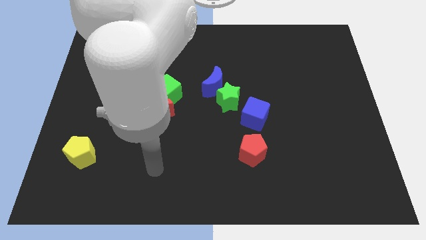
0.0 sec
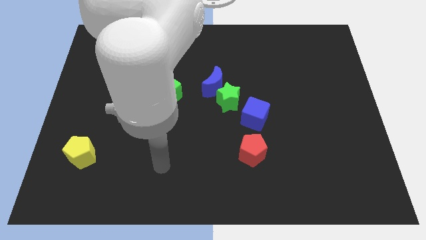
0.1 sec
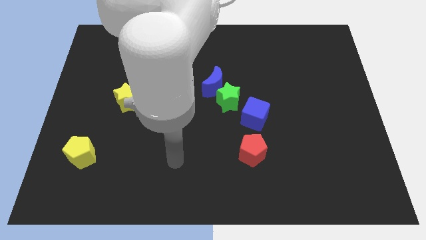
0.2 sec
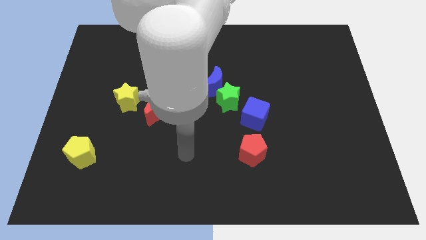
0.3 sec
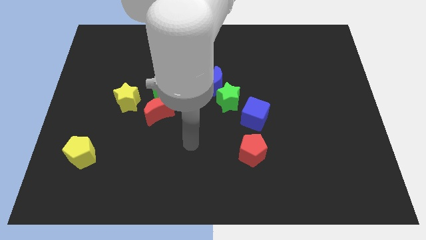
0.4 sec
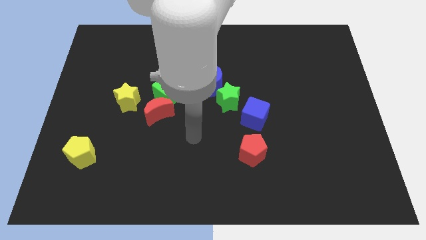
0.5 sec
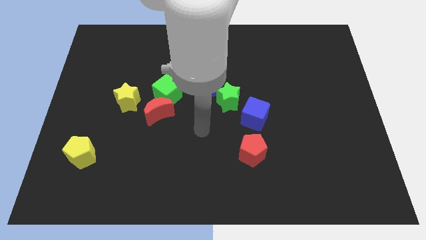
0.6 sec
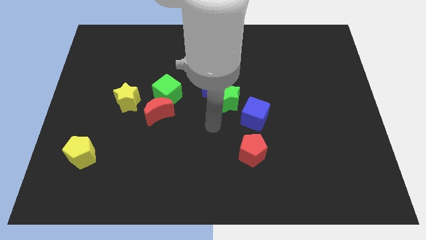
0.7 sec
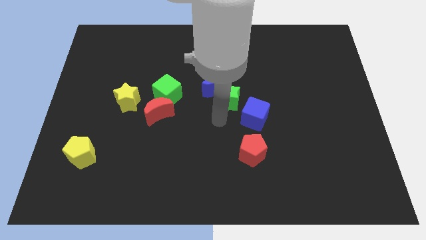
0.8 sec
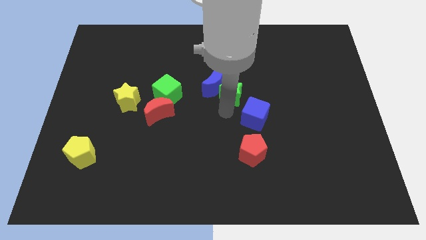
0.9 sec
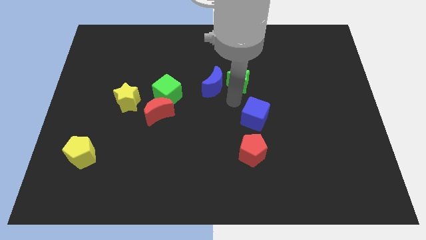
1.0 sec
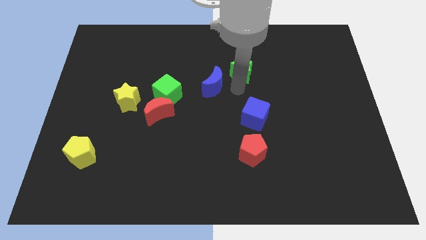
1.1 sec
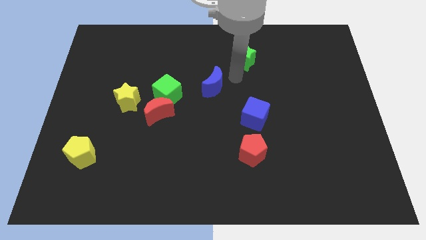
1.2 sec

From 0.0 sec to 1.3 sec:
separate the blue moon from the green star

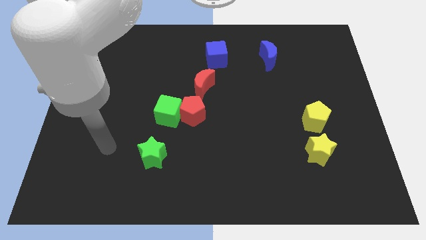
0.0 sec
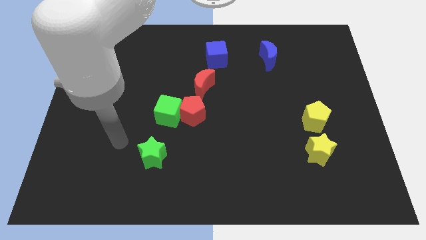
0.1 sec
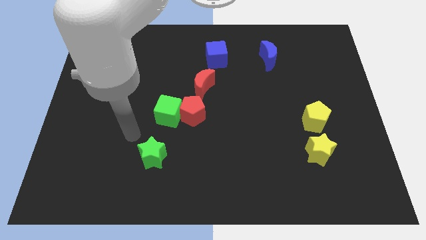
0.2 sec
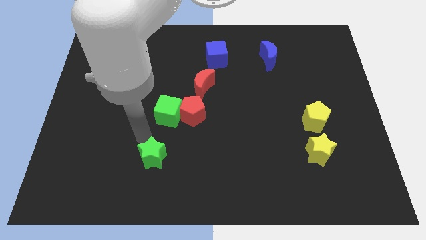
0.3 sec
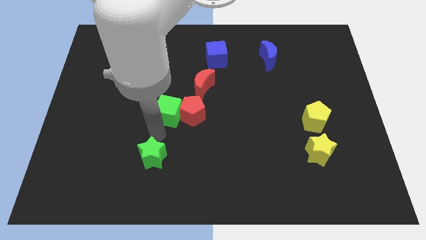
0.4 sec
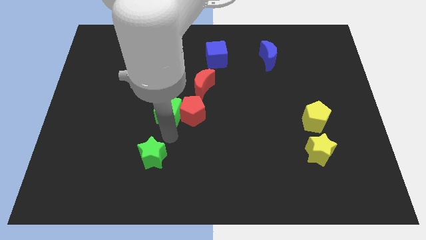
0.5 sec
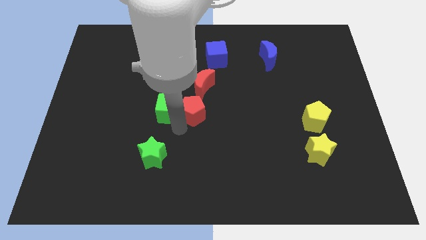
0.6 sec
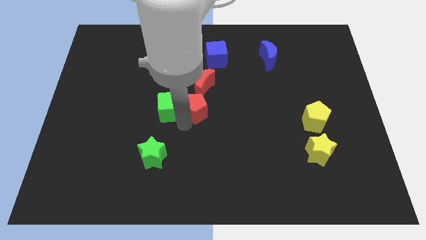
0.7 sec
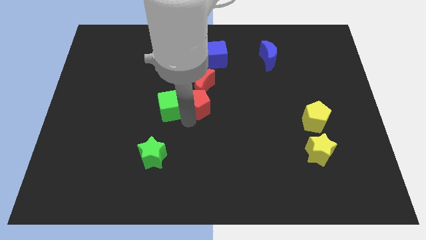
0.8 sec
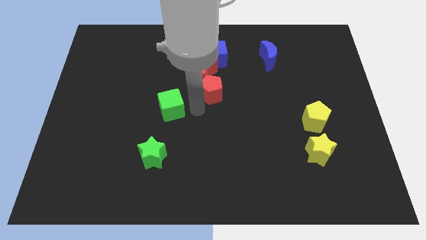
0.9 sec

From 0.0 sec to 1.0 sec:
separate the green cube from the red pentagon

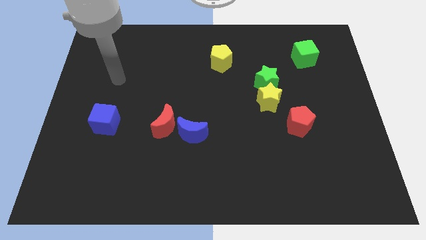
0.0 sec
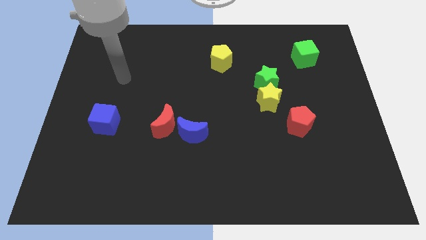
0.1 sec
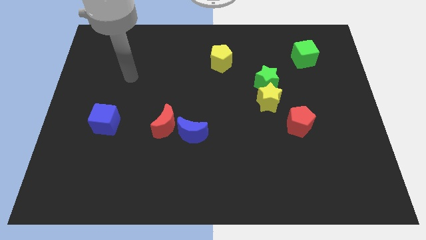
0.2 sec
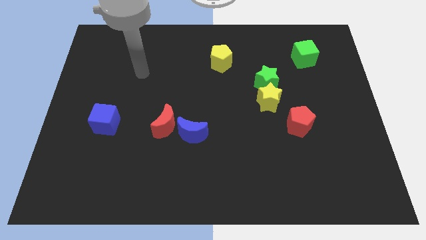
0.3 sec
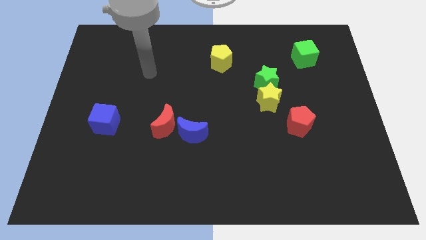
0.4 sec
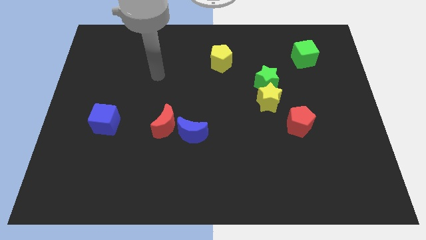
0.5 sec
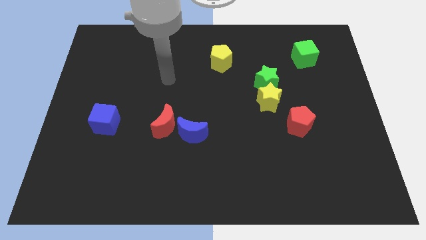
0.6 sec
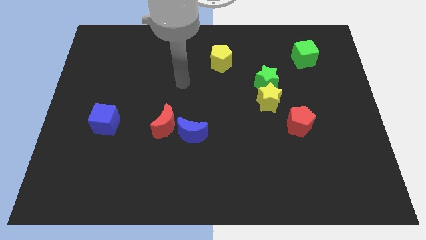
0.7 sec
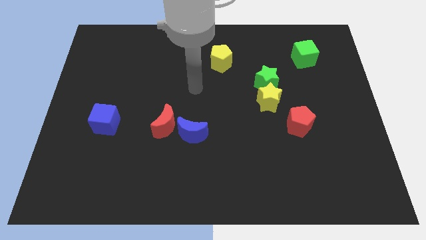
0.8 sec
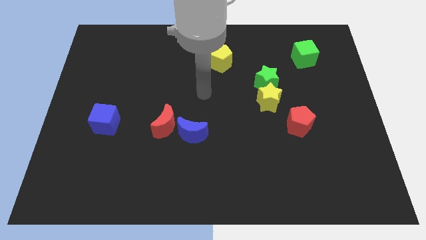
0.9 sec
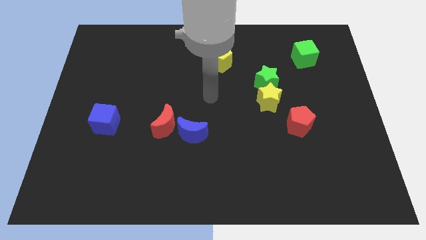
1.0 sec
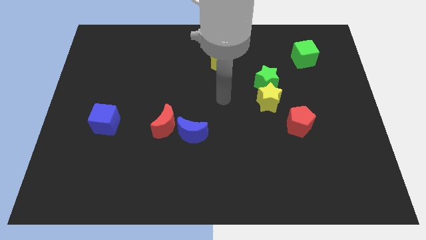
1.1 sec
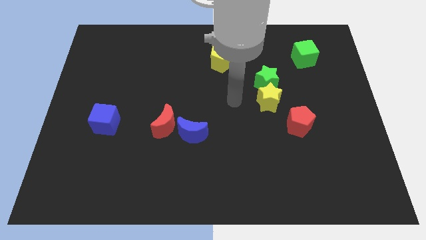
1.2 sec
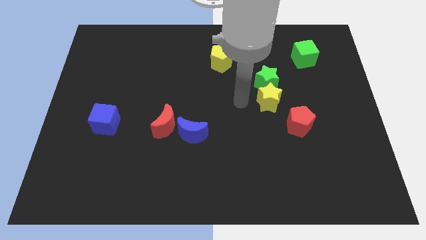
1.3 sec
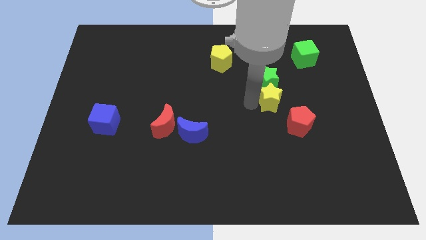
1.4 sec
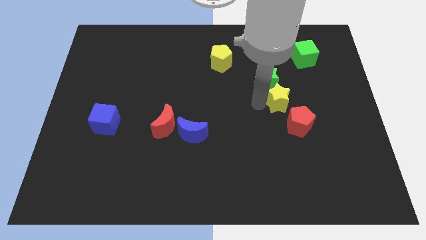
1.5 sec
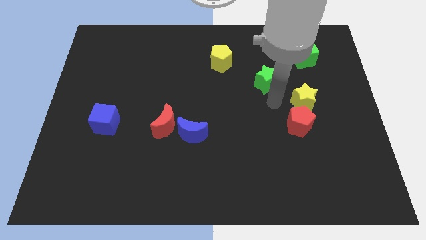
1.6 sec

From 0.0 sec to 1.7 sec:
separate the green star from the yellow star

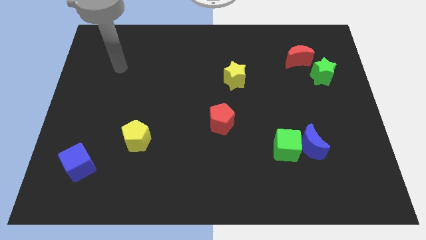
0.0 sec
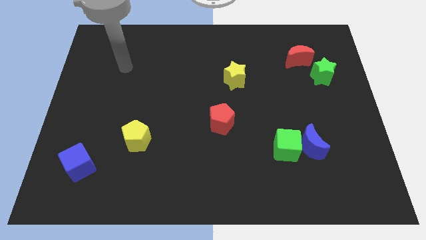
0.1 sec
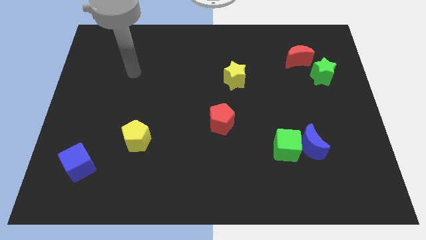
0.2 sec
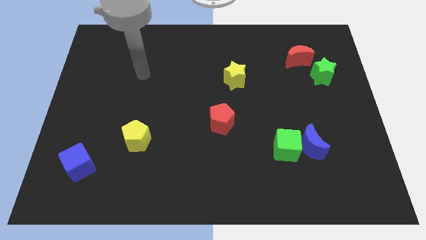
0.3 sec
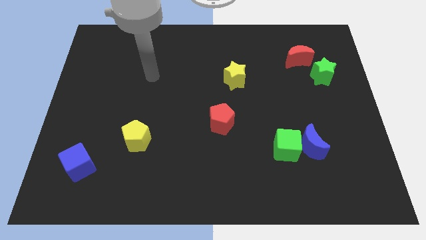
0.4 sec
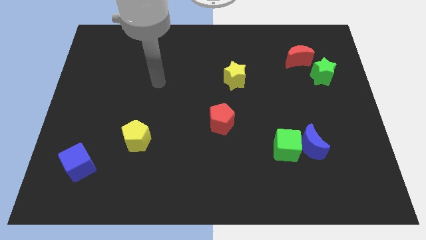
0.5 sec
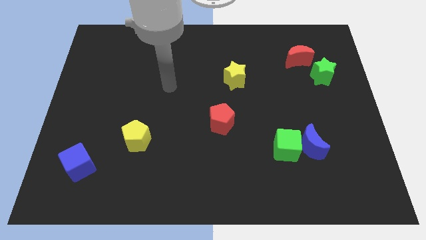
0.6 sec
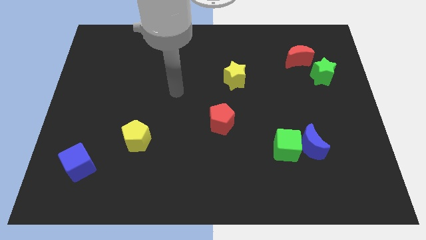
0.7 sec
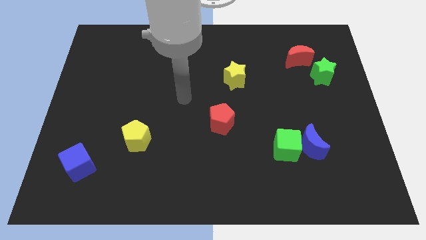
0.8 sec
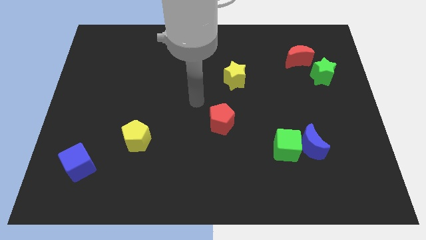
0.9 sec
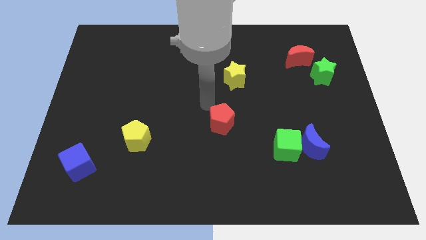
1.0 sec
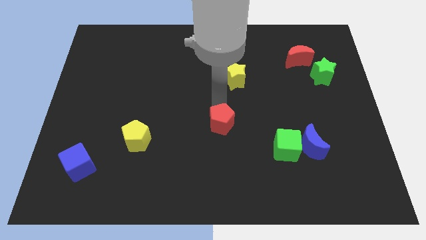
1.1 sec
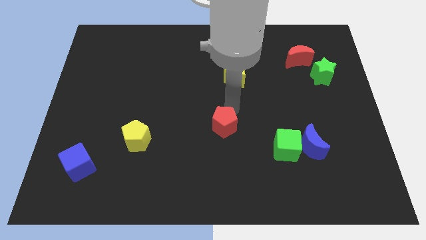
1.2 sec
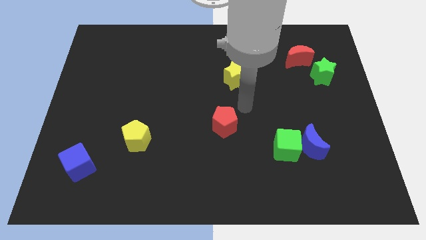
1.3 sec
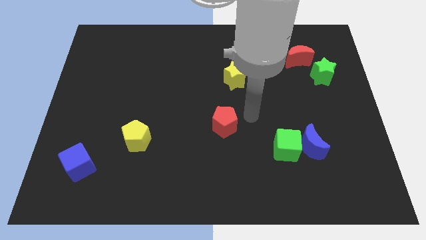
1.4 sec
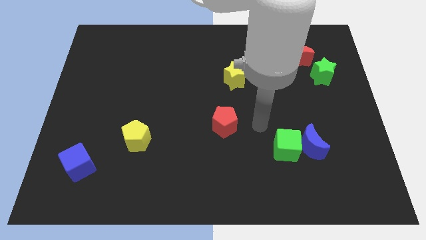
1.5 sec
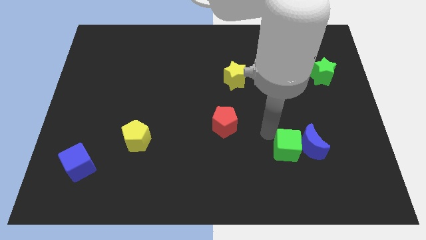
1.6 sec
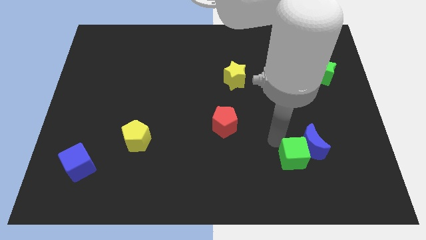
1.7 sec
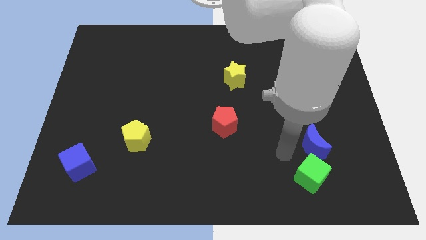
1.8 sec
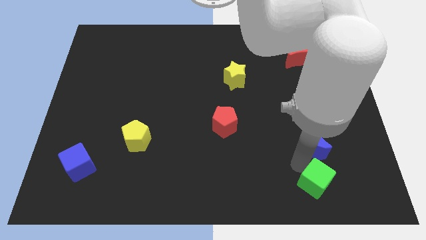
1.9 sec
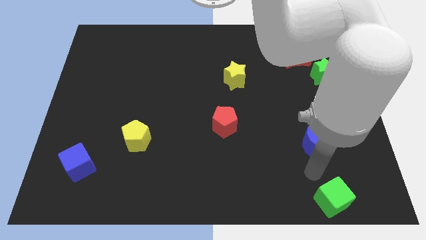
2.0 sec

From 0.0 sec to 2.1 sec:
separate the blue moon from the green cube

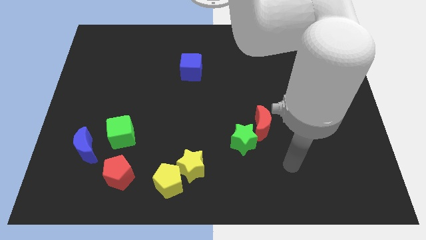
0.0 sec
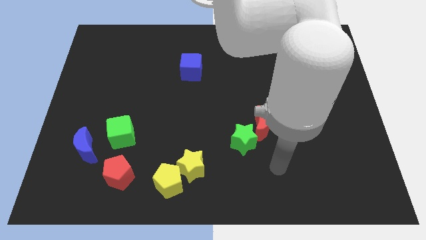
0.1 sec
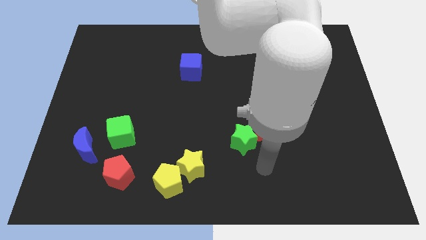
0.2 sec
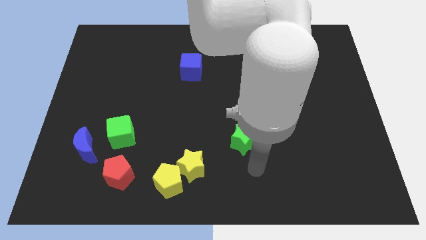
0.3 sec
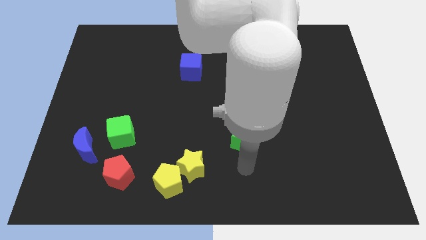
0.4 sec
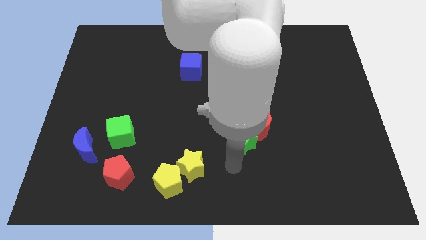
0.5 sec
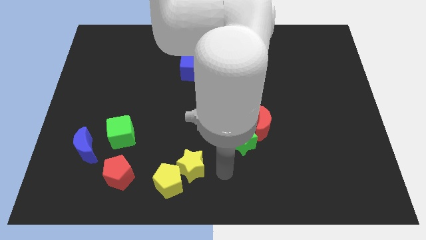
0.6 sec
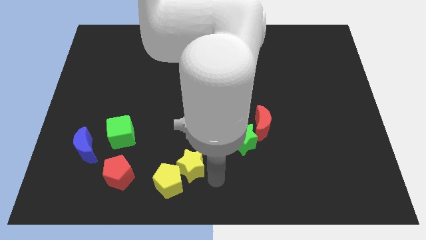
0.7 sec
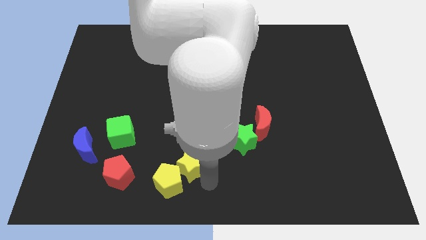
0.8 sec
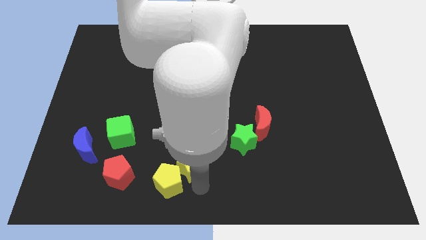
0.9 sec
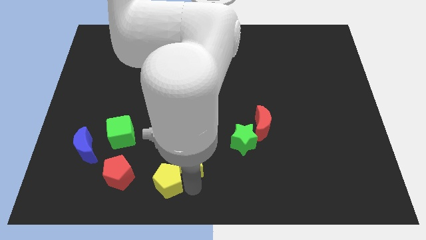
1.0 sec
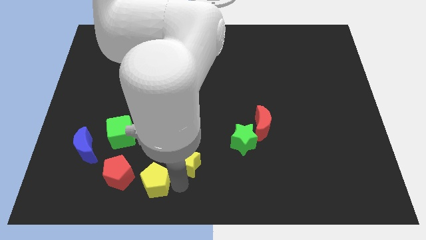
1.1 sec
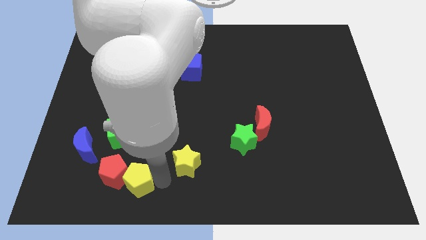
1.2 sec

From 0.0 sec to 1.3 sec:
move the yellow star away from the yellow pentagon

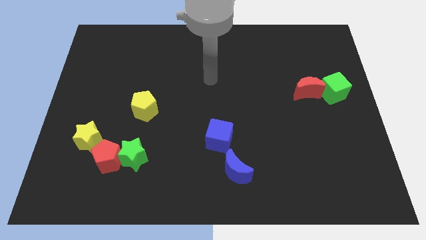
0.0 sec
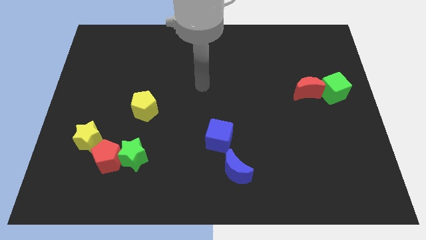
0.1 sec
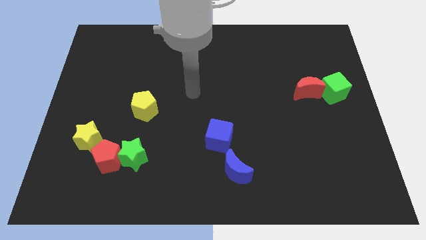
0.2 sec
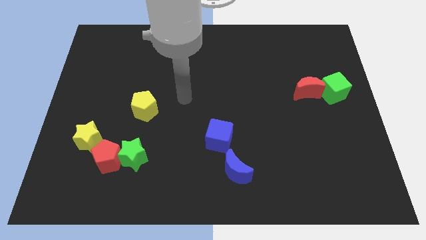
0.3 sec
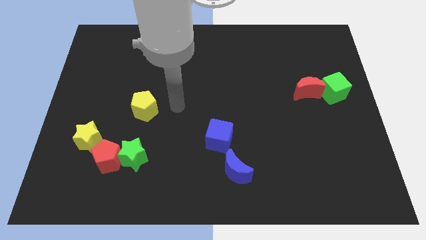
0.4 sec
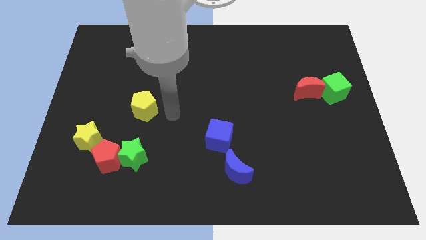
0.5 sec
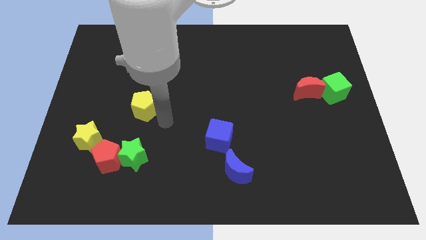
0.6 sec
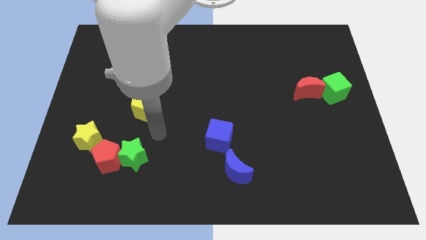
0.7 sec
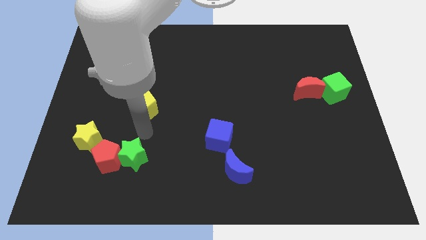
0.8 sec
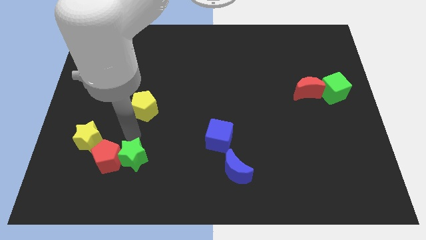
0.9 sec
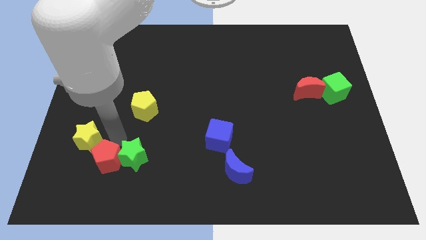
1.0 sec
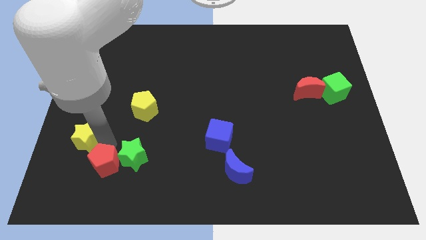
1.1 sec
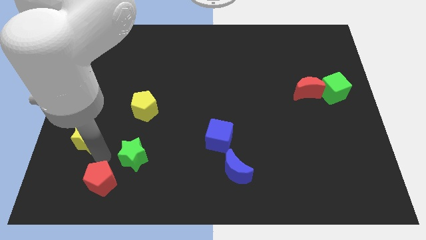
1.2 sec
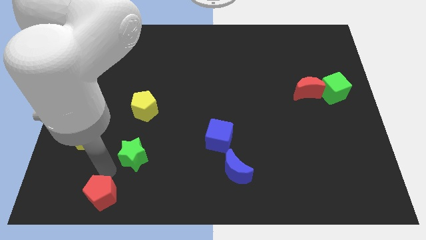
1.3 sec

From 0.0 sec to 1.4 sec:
pull the green star apart from the red pentagon

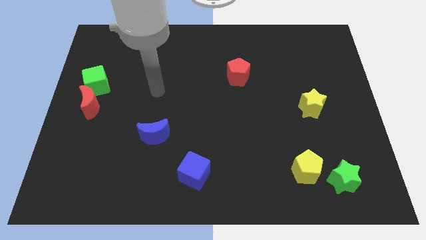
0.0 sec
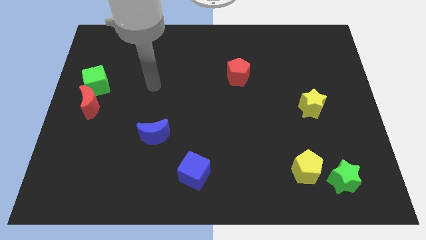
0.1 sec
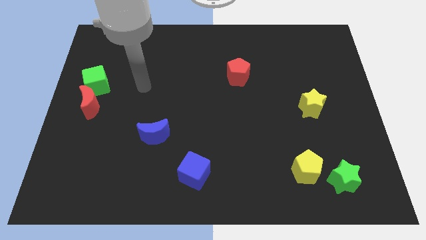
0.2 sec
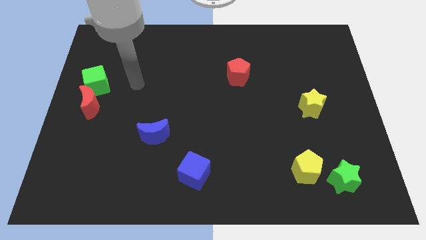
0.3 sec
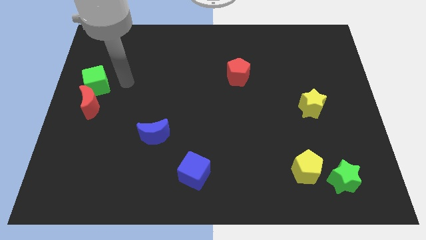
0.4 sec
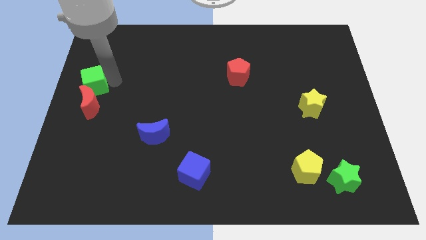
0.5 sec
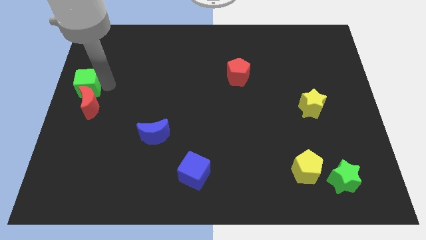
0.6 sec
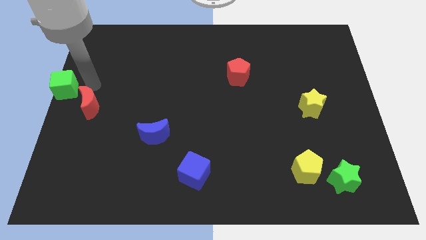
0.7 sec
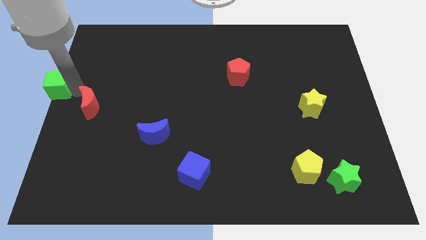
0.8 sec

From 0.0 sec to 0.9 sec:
separate the red moon from the green cube
